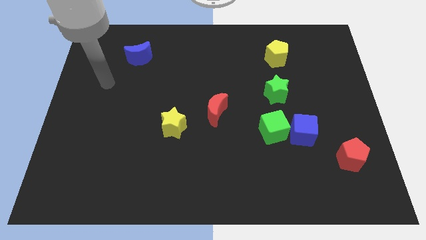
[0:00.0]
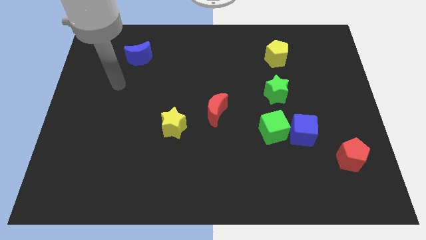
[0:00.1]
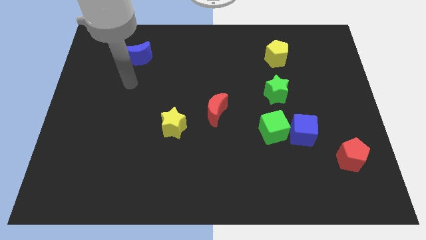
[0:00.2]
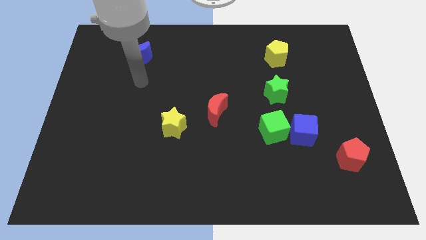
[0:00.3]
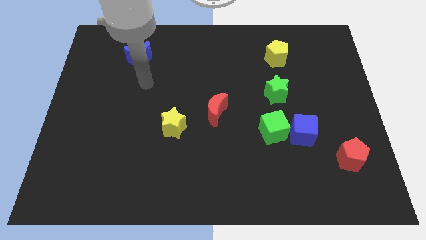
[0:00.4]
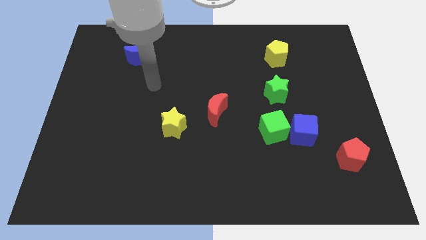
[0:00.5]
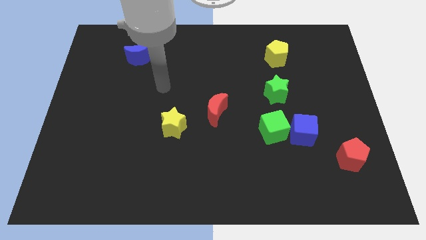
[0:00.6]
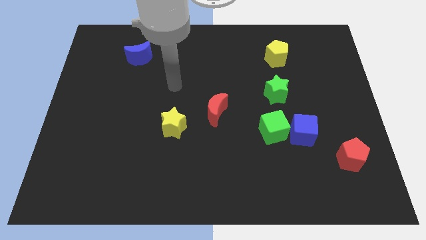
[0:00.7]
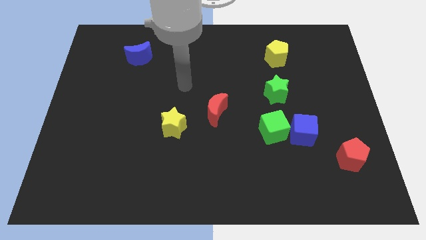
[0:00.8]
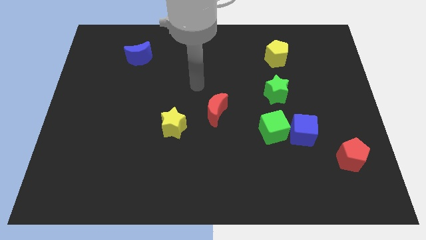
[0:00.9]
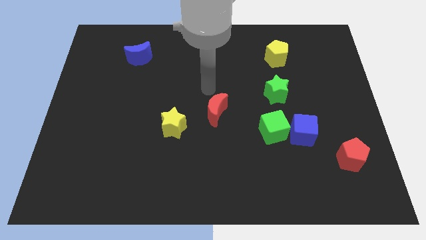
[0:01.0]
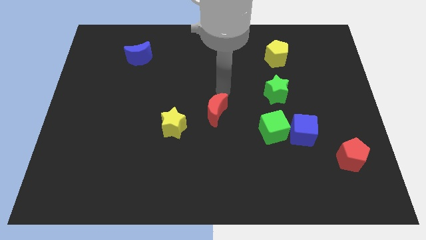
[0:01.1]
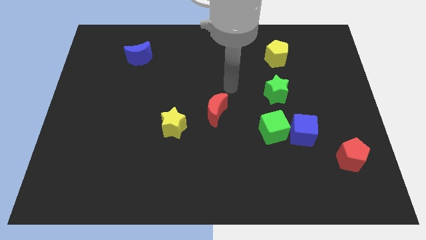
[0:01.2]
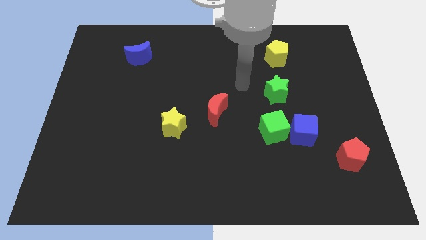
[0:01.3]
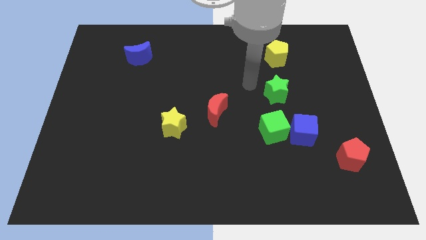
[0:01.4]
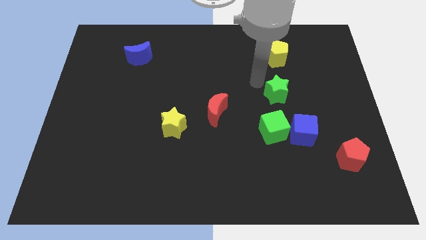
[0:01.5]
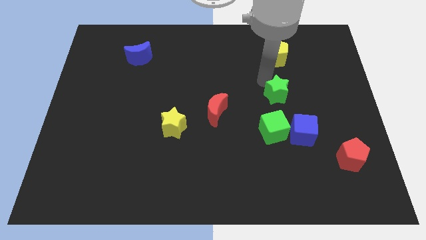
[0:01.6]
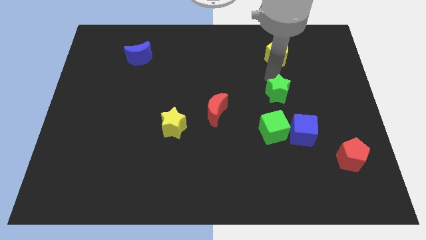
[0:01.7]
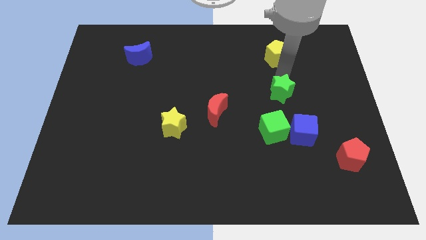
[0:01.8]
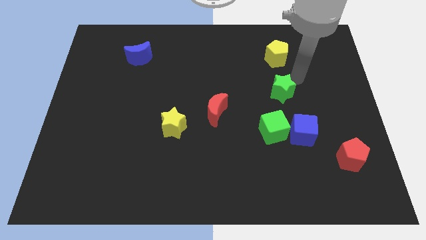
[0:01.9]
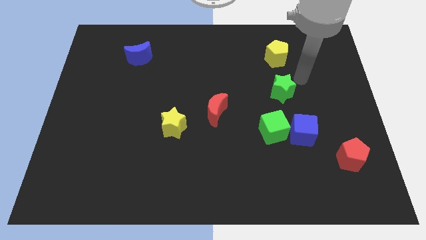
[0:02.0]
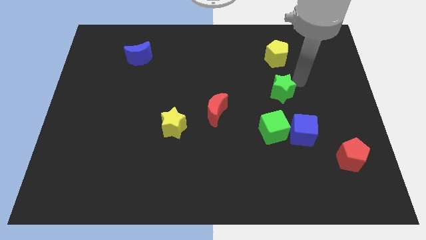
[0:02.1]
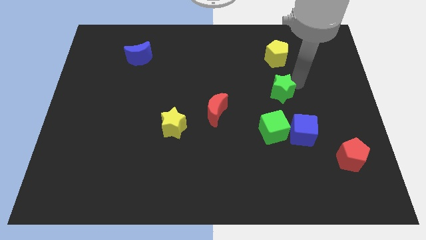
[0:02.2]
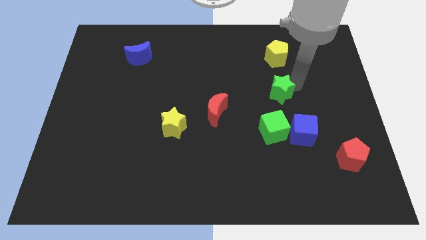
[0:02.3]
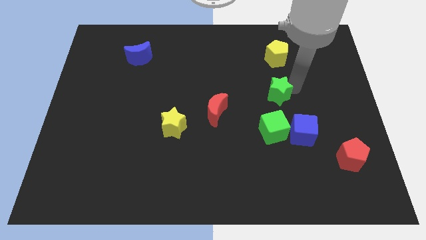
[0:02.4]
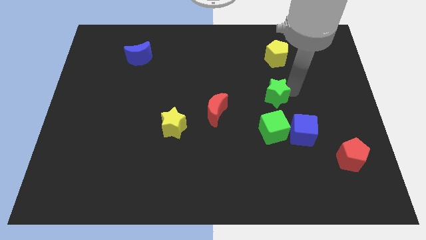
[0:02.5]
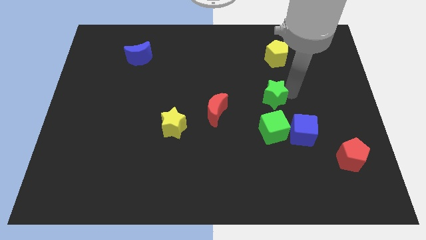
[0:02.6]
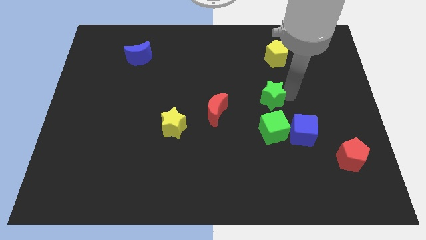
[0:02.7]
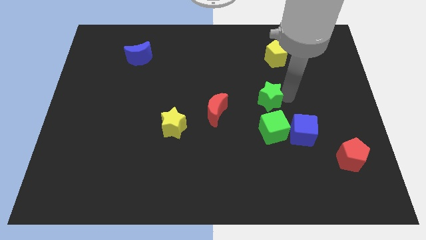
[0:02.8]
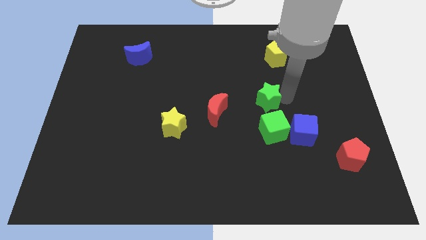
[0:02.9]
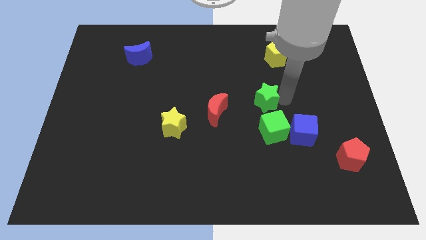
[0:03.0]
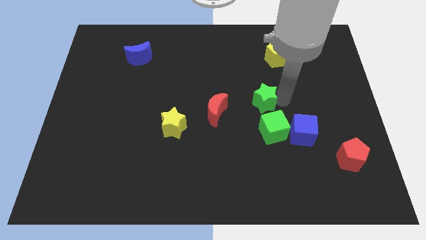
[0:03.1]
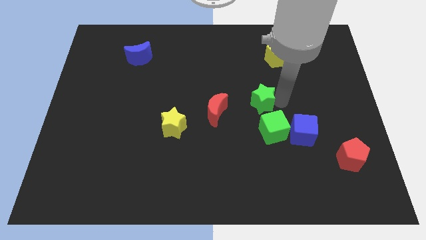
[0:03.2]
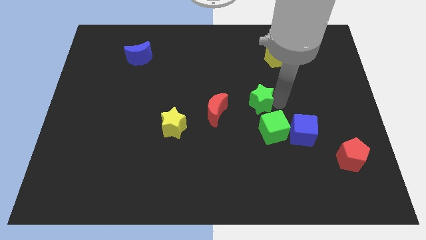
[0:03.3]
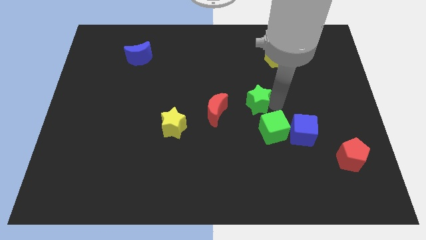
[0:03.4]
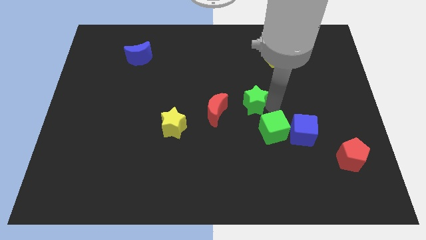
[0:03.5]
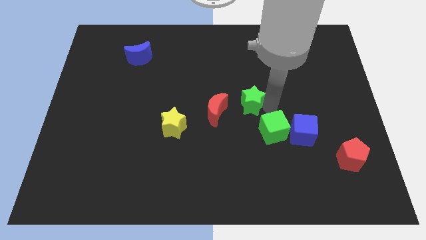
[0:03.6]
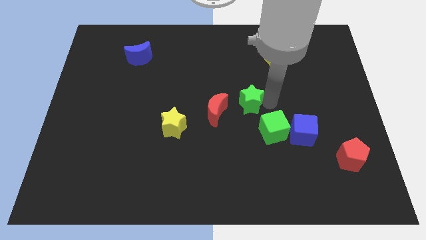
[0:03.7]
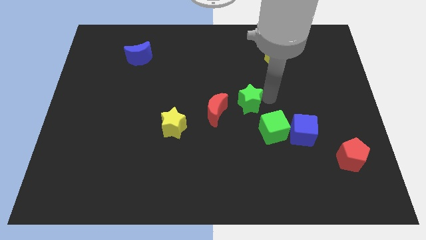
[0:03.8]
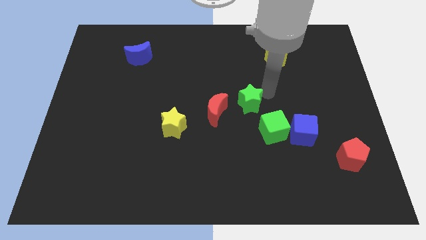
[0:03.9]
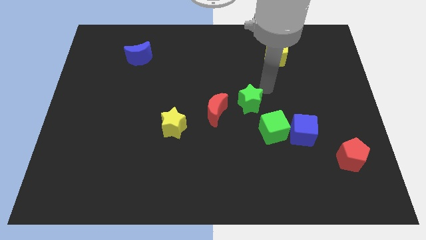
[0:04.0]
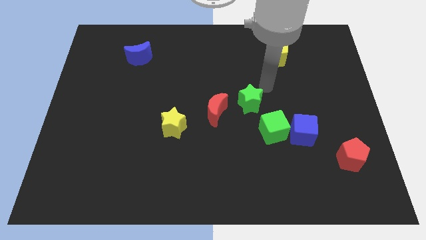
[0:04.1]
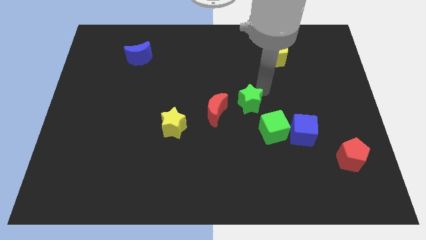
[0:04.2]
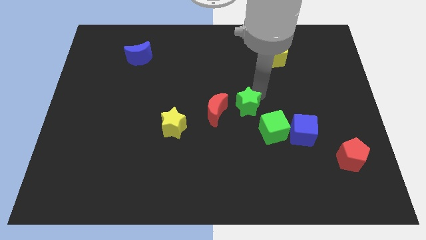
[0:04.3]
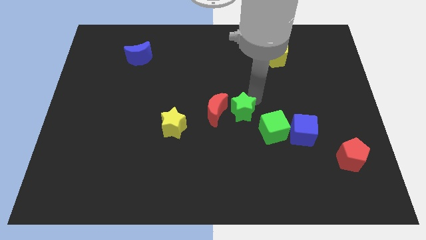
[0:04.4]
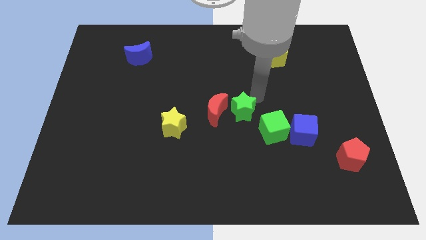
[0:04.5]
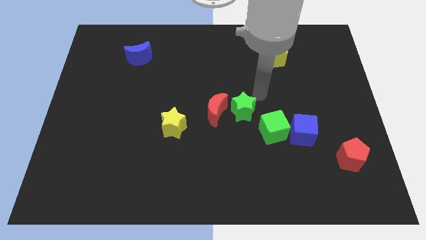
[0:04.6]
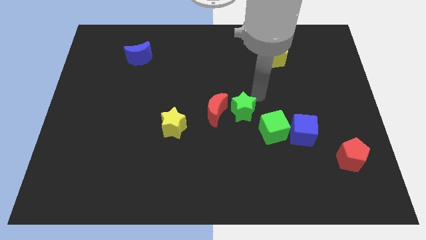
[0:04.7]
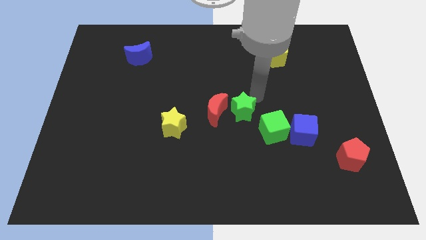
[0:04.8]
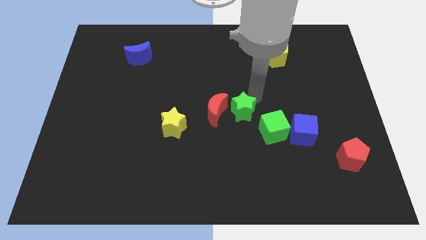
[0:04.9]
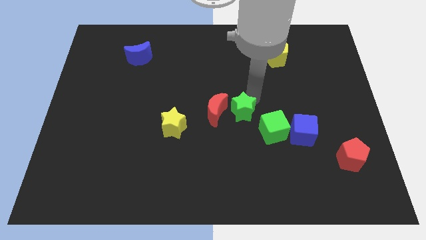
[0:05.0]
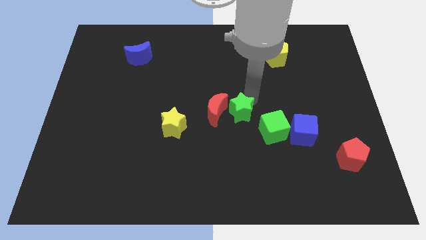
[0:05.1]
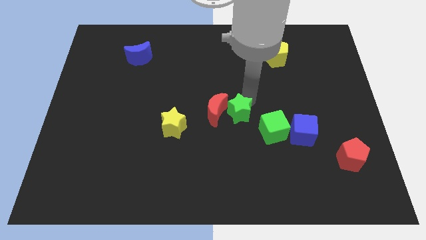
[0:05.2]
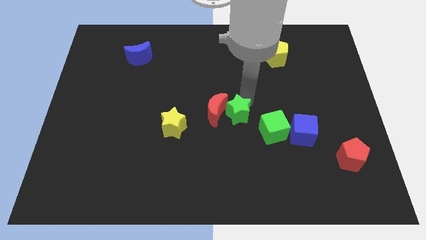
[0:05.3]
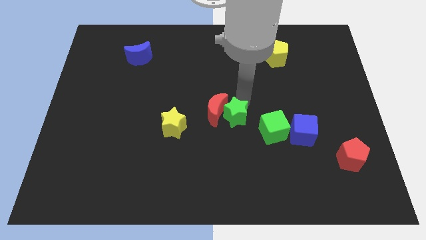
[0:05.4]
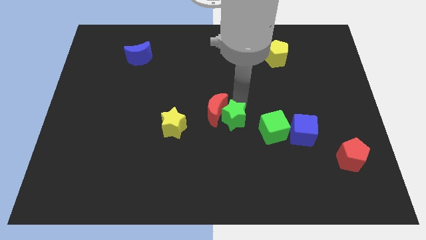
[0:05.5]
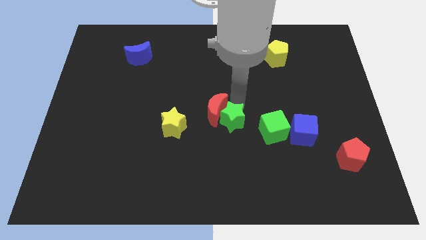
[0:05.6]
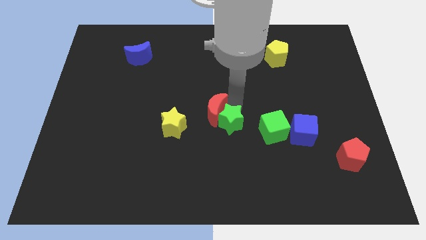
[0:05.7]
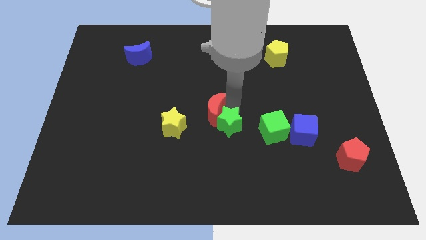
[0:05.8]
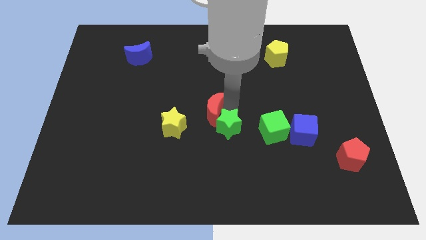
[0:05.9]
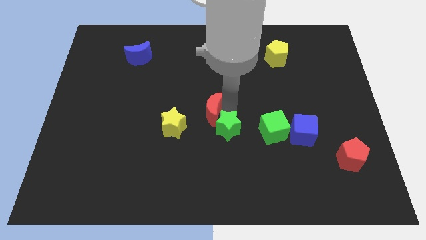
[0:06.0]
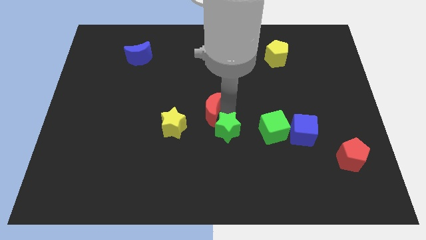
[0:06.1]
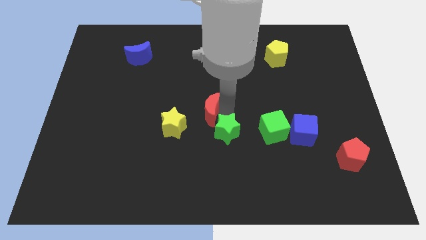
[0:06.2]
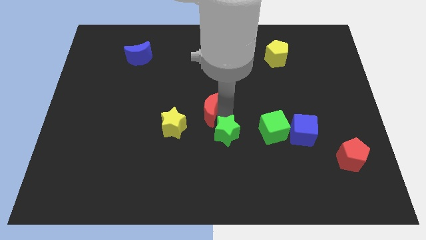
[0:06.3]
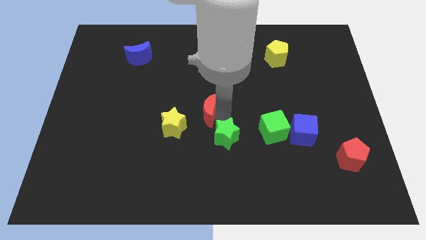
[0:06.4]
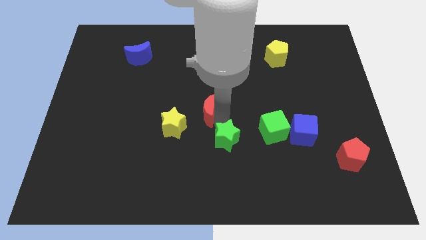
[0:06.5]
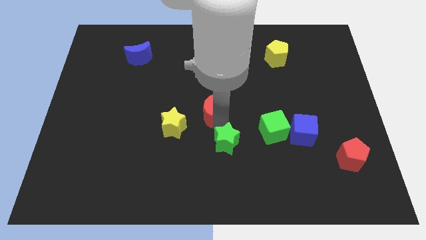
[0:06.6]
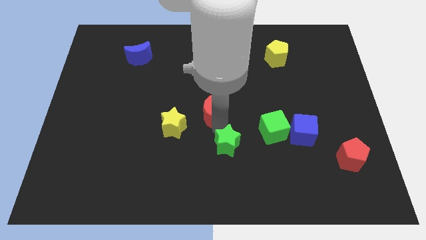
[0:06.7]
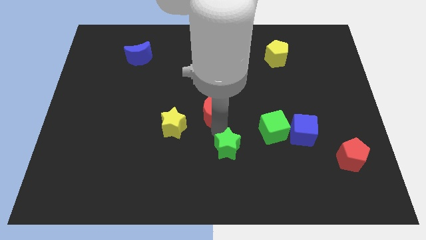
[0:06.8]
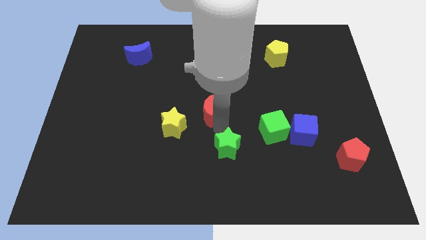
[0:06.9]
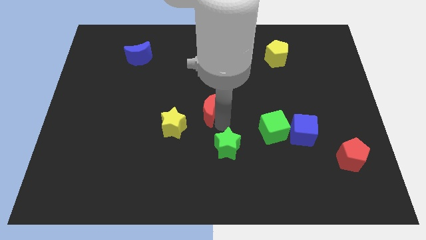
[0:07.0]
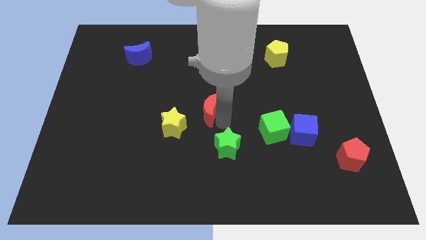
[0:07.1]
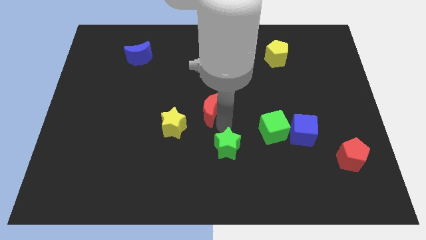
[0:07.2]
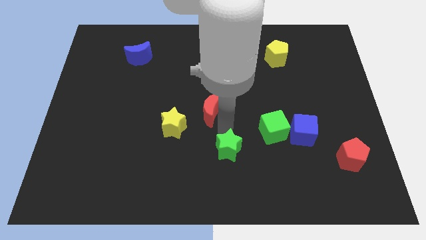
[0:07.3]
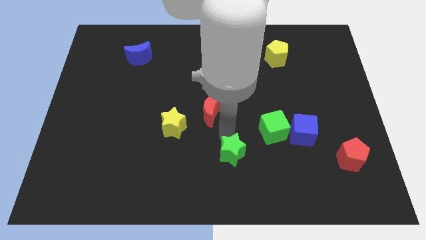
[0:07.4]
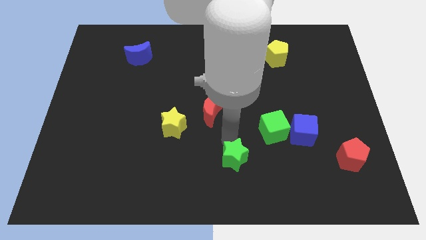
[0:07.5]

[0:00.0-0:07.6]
move the green star to the bottom
